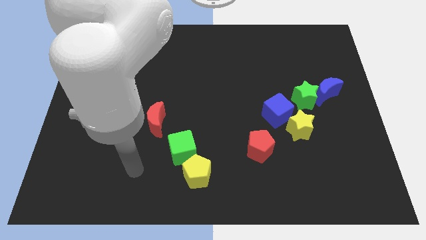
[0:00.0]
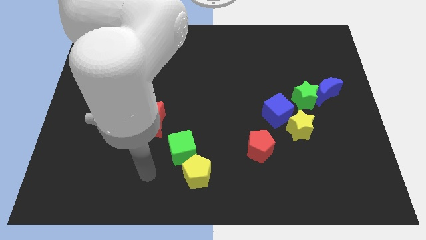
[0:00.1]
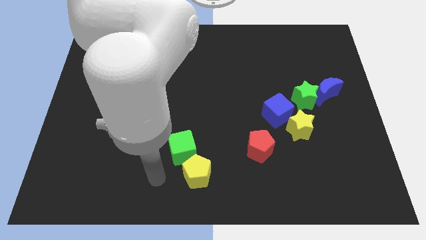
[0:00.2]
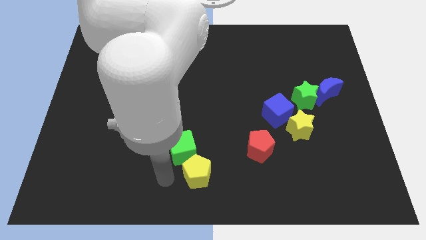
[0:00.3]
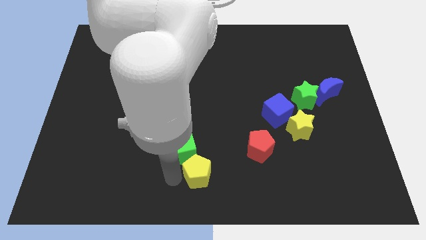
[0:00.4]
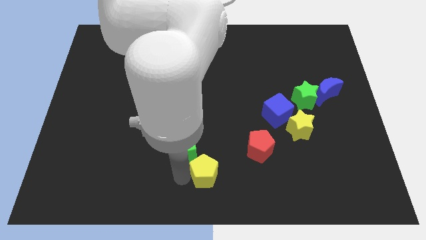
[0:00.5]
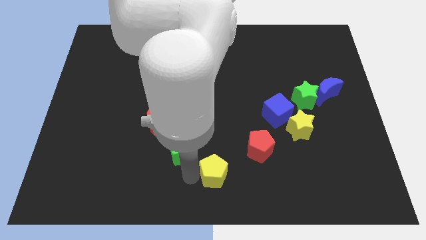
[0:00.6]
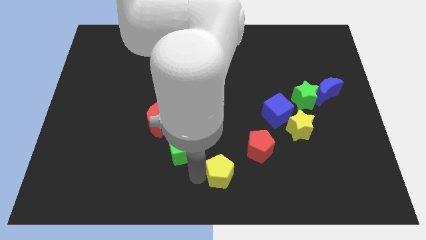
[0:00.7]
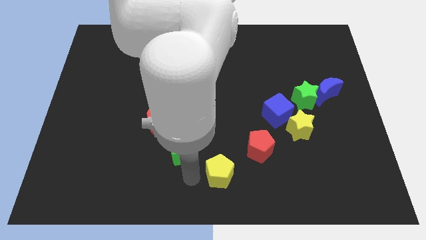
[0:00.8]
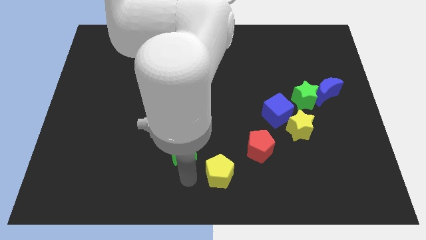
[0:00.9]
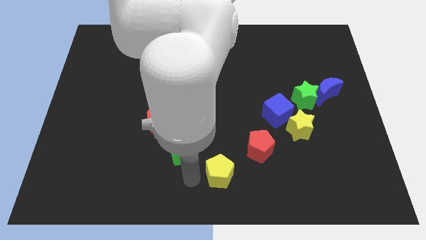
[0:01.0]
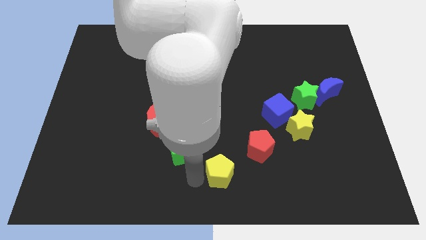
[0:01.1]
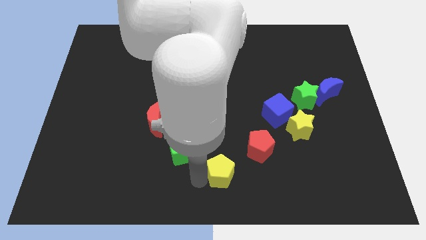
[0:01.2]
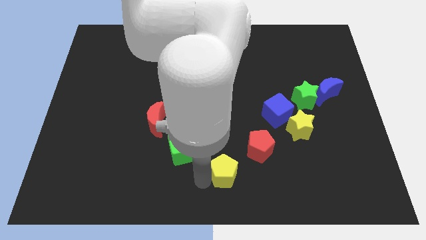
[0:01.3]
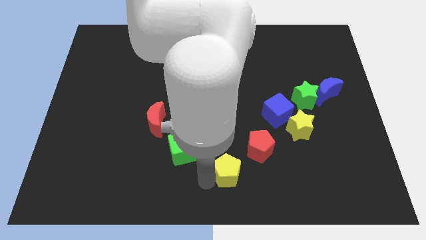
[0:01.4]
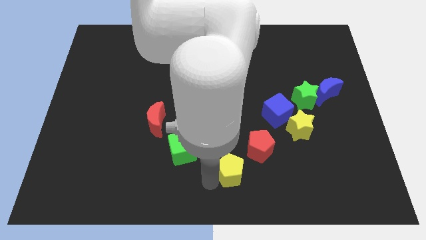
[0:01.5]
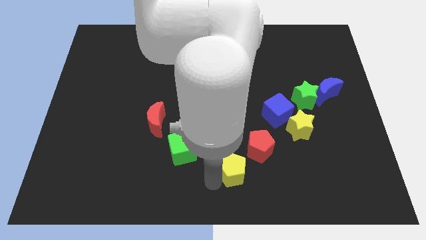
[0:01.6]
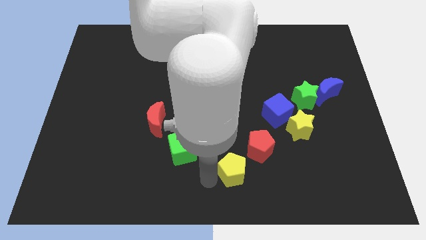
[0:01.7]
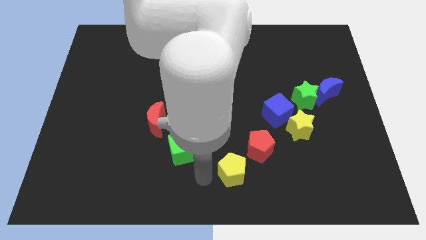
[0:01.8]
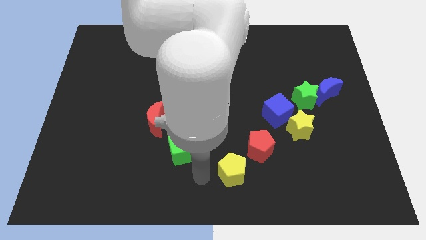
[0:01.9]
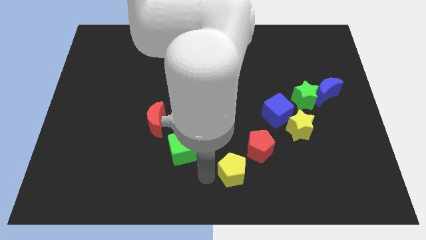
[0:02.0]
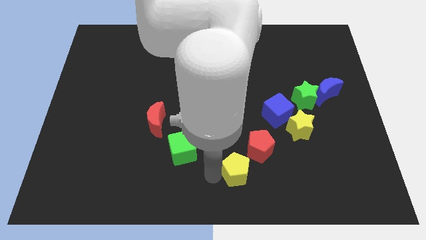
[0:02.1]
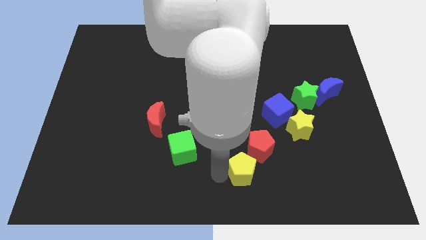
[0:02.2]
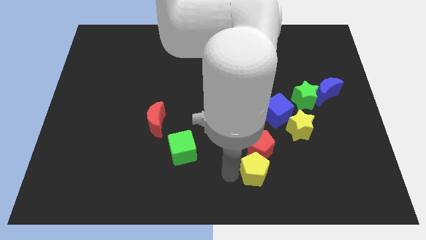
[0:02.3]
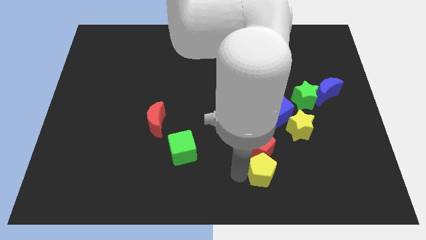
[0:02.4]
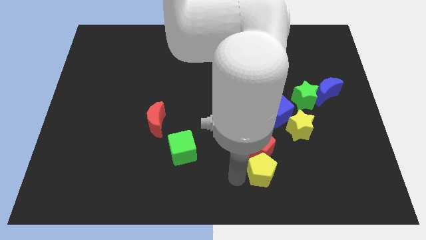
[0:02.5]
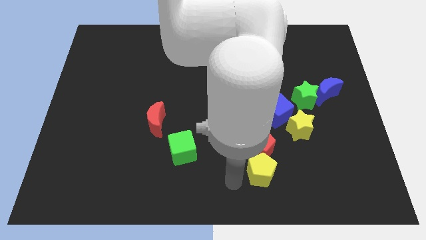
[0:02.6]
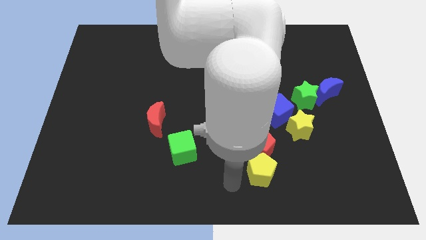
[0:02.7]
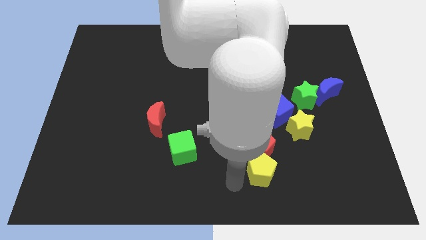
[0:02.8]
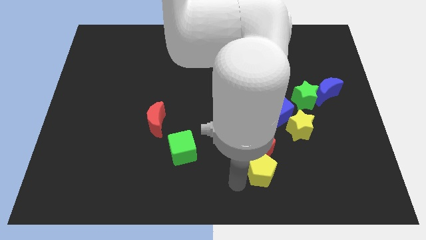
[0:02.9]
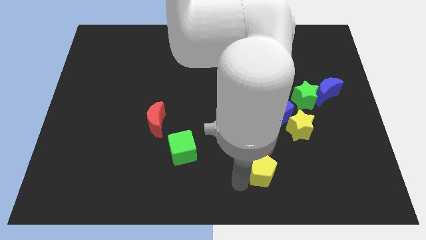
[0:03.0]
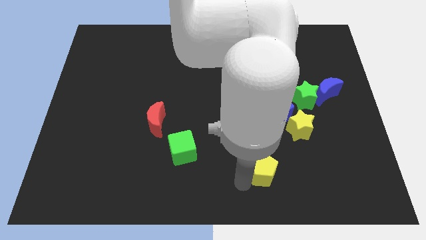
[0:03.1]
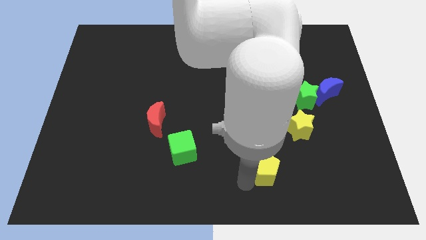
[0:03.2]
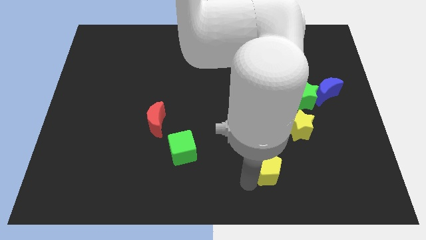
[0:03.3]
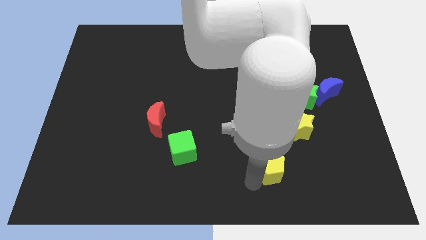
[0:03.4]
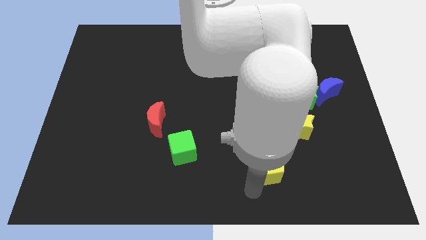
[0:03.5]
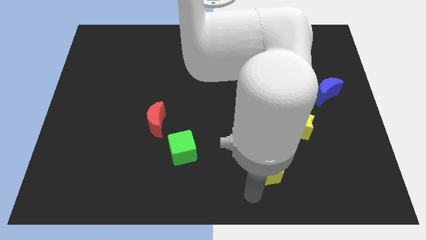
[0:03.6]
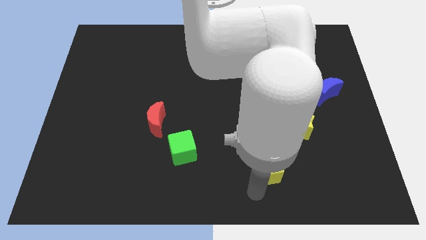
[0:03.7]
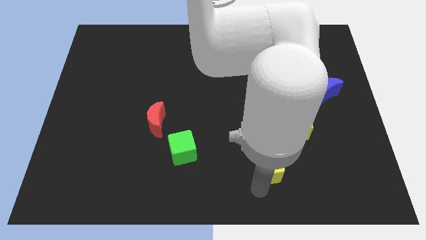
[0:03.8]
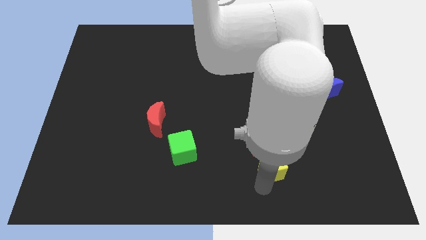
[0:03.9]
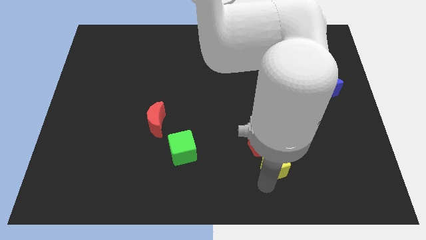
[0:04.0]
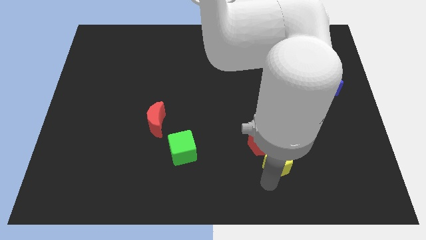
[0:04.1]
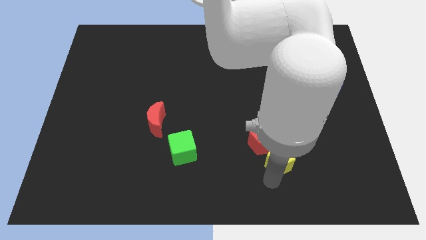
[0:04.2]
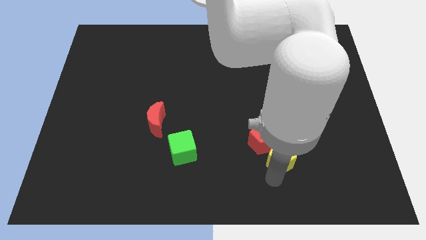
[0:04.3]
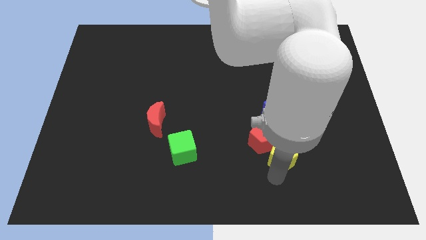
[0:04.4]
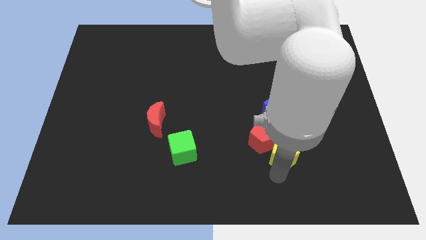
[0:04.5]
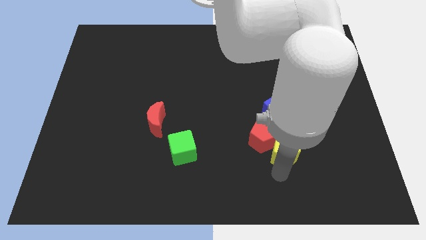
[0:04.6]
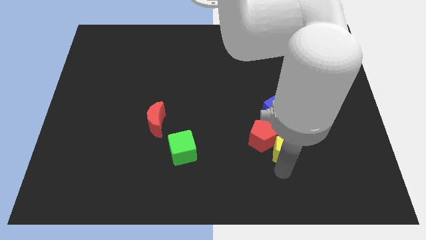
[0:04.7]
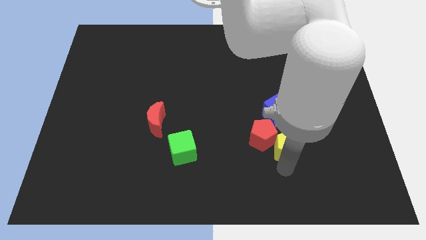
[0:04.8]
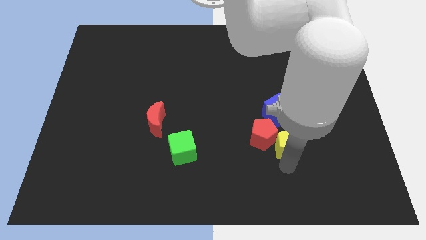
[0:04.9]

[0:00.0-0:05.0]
slide the yellow pentagon to the yellow star

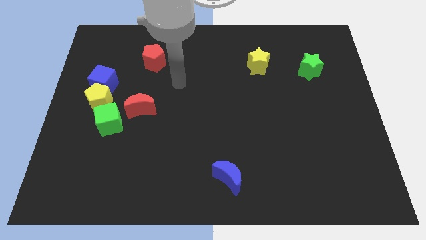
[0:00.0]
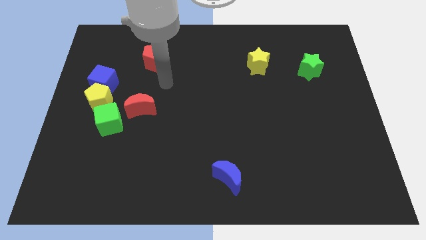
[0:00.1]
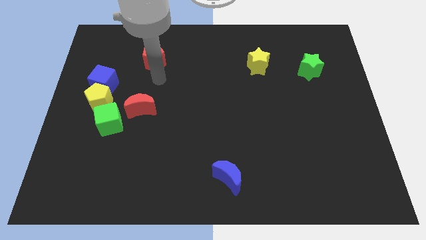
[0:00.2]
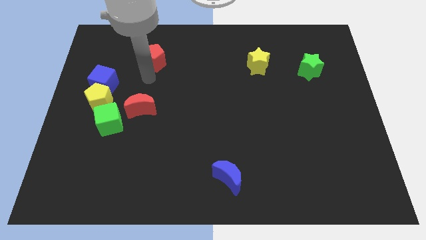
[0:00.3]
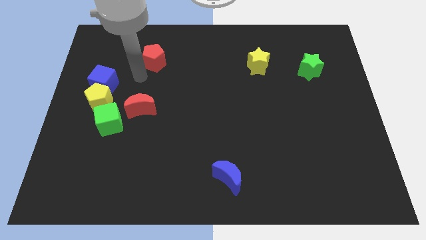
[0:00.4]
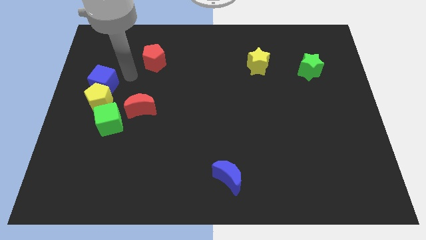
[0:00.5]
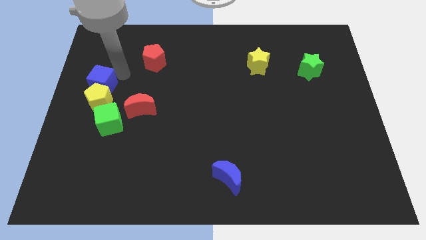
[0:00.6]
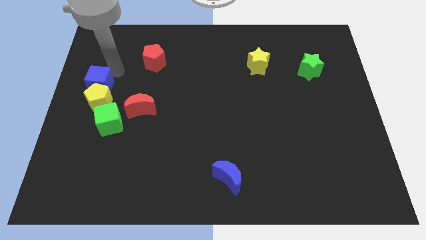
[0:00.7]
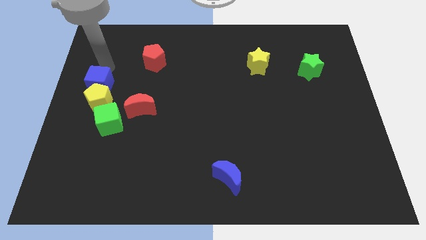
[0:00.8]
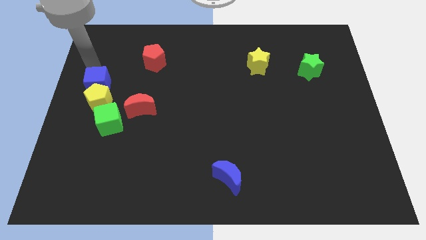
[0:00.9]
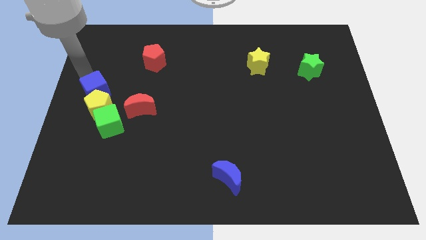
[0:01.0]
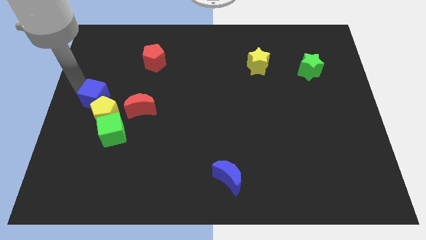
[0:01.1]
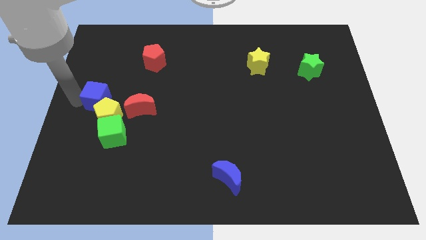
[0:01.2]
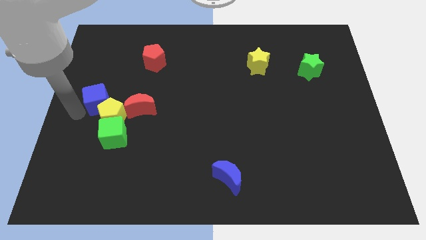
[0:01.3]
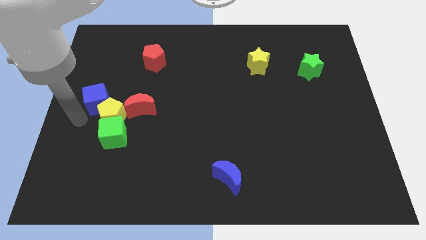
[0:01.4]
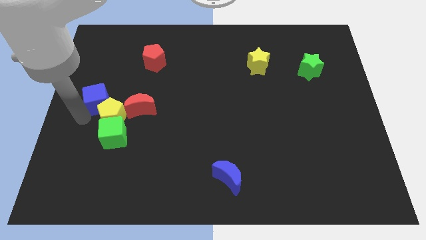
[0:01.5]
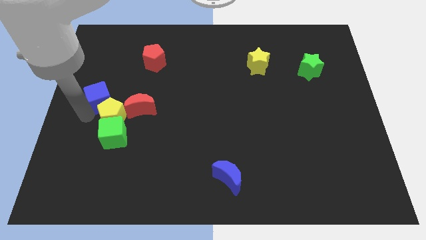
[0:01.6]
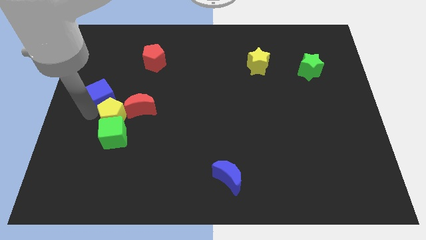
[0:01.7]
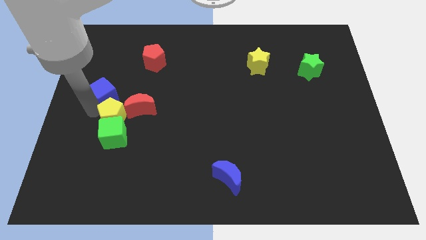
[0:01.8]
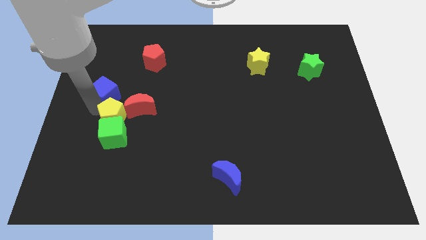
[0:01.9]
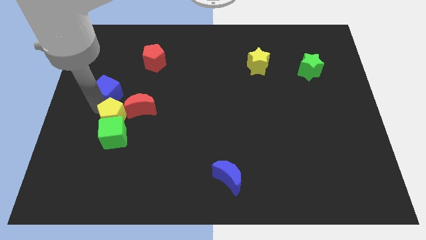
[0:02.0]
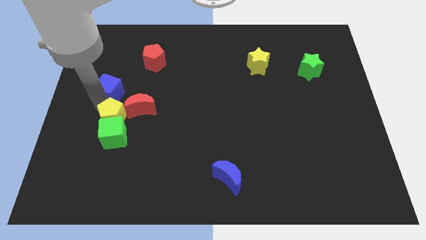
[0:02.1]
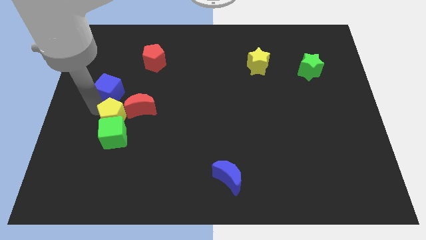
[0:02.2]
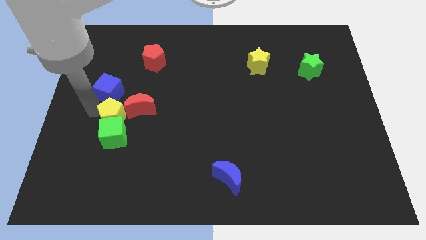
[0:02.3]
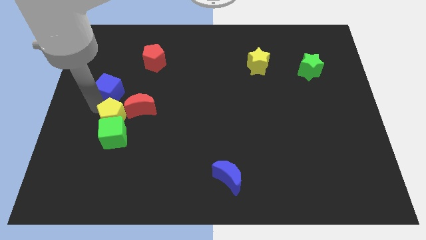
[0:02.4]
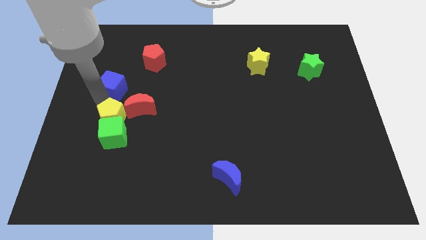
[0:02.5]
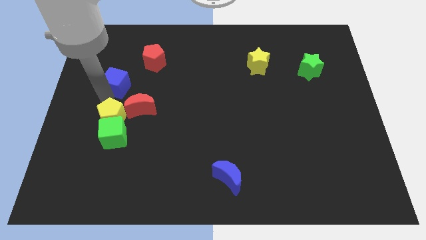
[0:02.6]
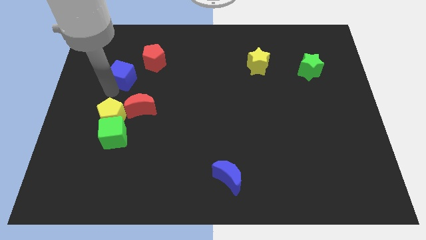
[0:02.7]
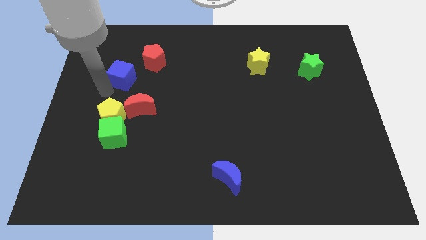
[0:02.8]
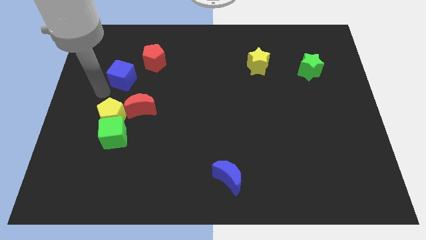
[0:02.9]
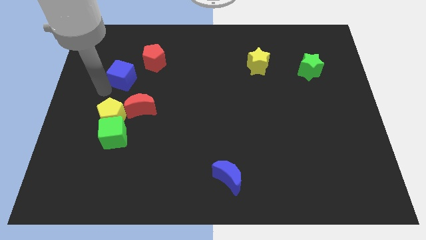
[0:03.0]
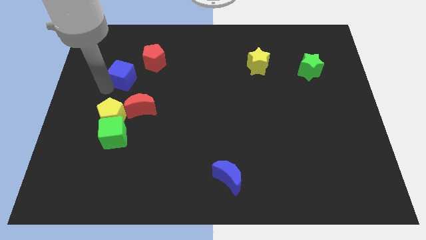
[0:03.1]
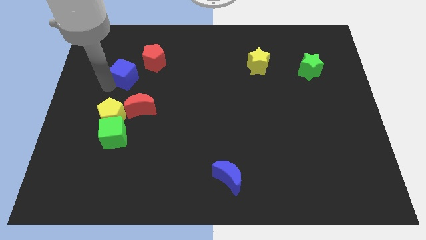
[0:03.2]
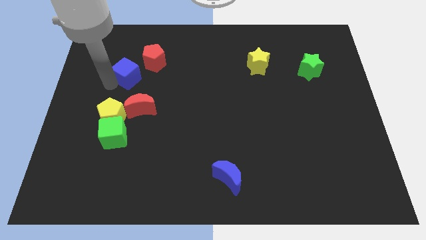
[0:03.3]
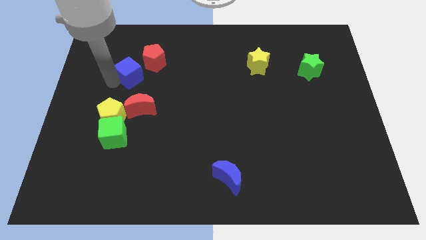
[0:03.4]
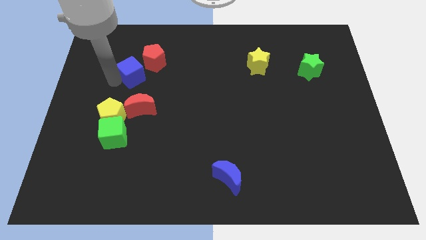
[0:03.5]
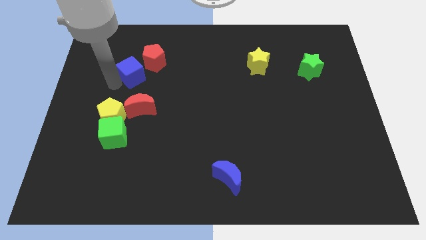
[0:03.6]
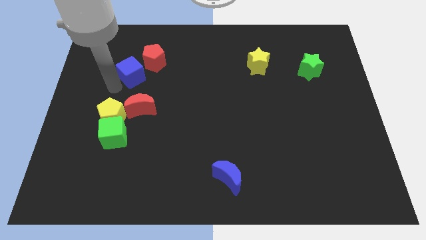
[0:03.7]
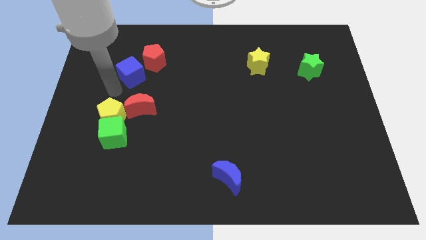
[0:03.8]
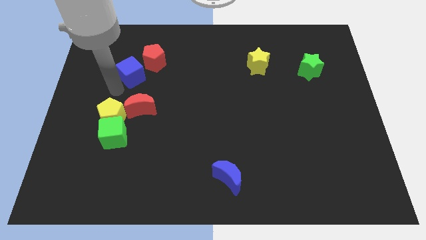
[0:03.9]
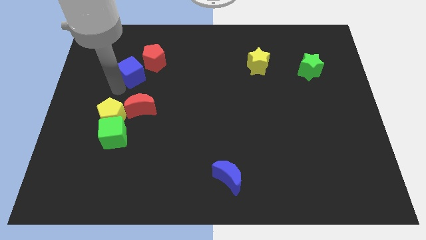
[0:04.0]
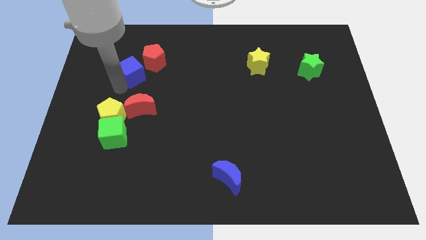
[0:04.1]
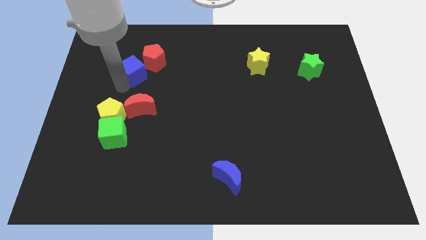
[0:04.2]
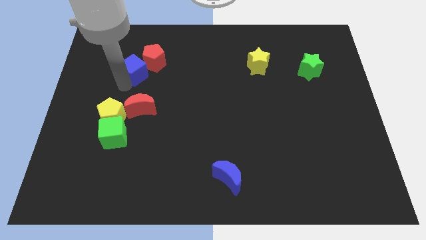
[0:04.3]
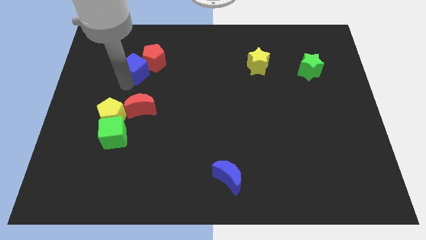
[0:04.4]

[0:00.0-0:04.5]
move the blue cube towards the red pentagon
